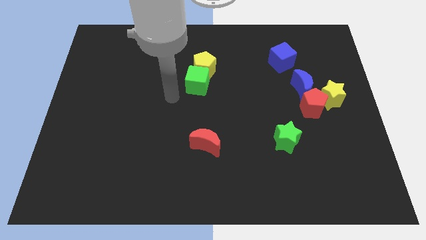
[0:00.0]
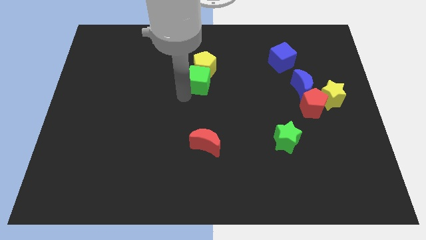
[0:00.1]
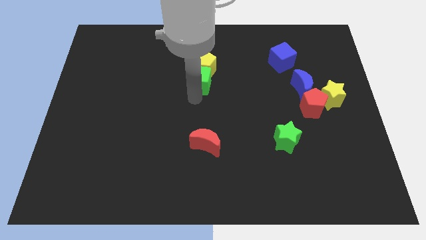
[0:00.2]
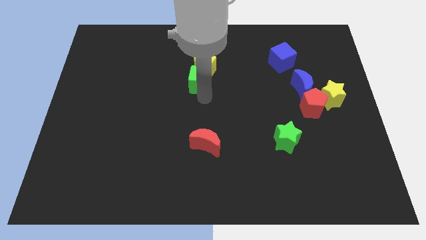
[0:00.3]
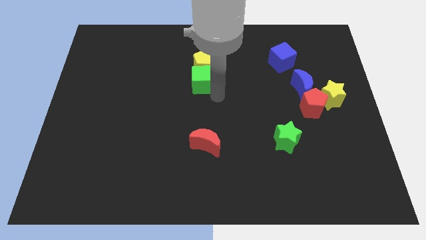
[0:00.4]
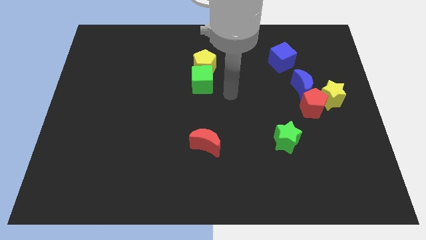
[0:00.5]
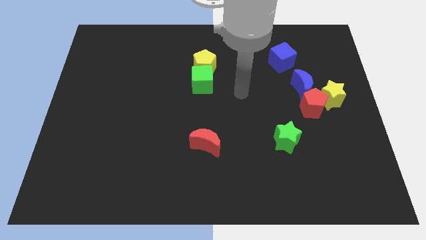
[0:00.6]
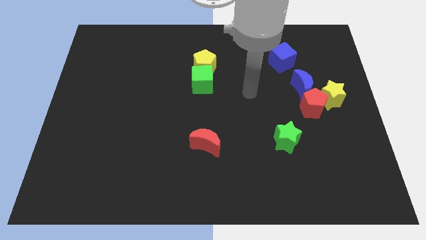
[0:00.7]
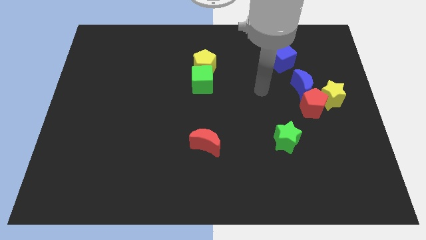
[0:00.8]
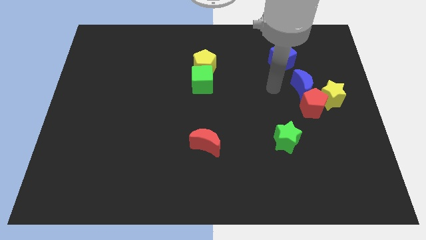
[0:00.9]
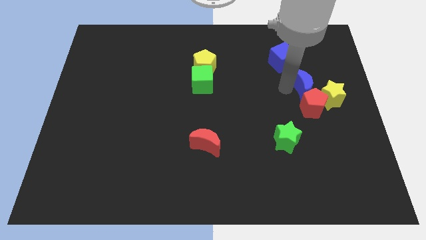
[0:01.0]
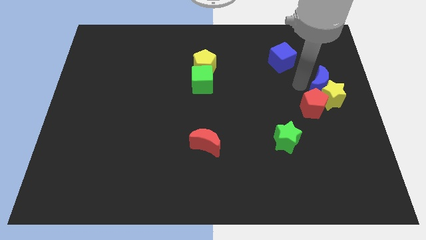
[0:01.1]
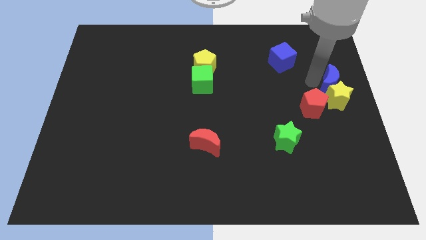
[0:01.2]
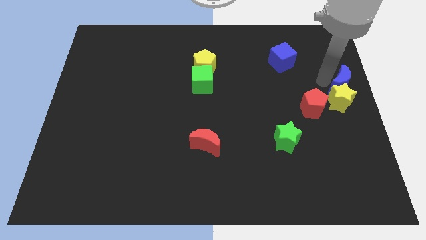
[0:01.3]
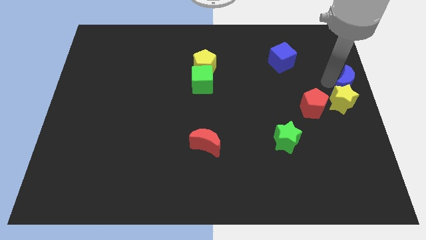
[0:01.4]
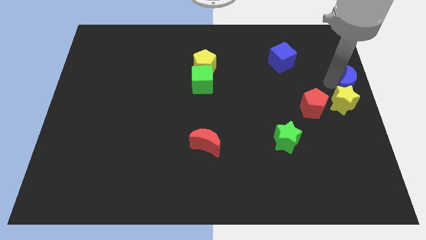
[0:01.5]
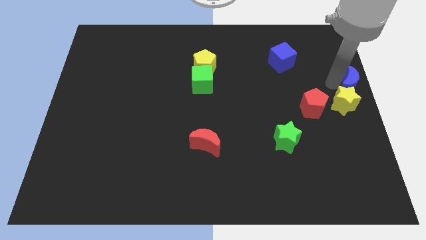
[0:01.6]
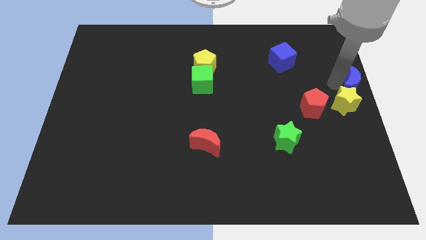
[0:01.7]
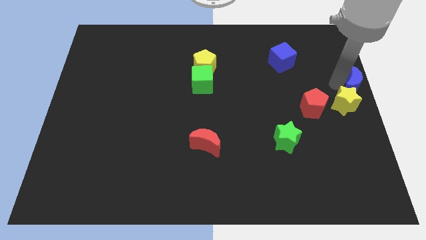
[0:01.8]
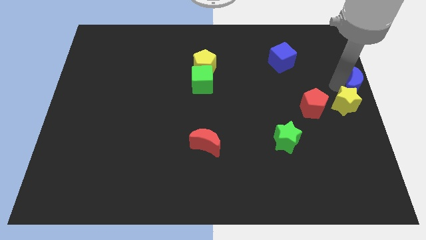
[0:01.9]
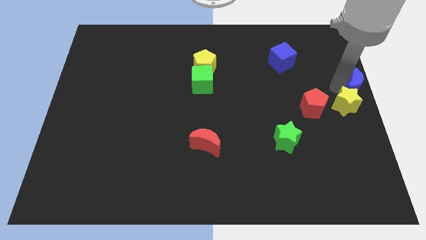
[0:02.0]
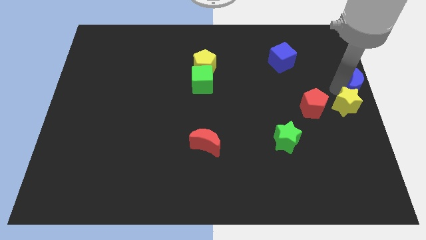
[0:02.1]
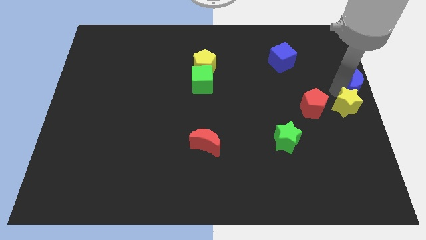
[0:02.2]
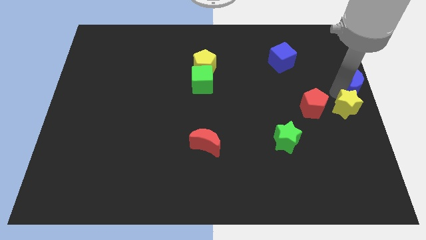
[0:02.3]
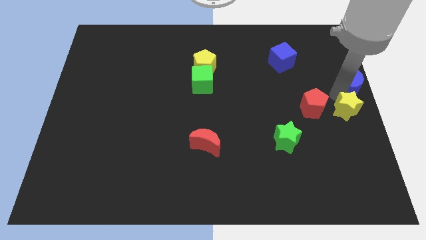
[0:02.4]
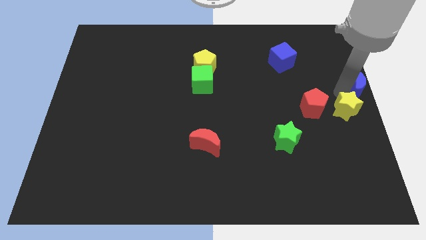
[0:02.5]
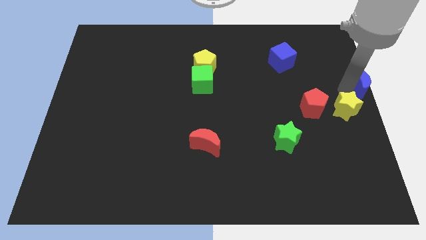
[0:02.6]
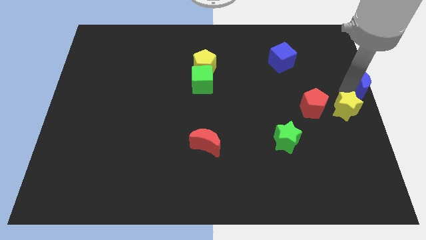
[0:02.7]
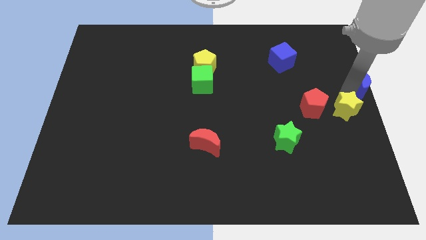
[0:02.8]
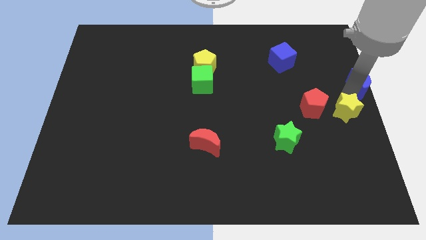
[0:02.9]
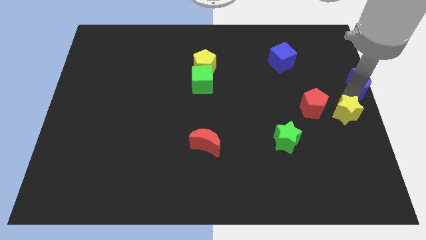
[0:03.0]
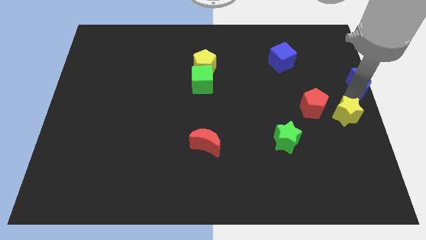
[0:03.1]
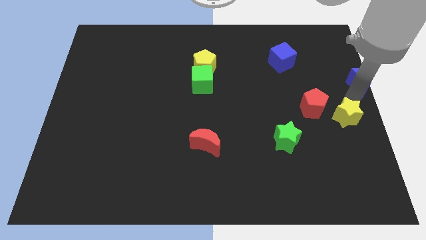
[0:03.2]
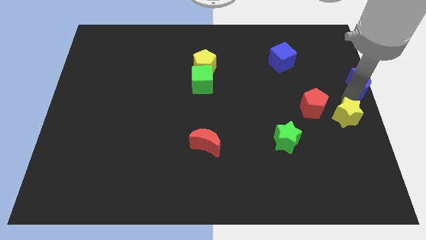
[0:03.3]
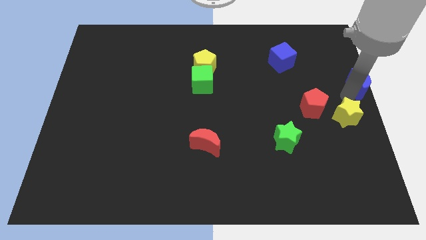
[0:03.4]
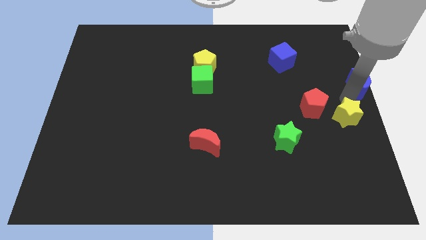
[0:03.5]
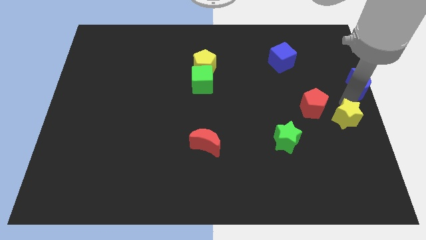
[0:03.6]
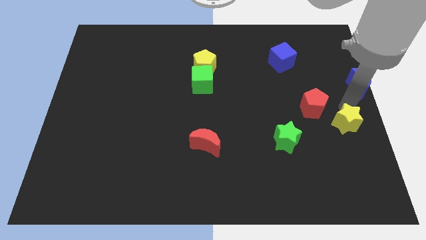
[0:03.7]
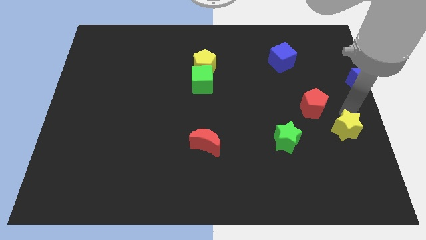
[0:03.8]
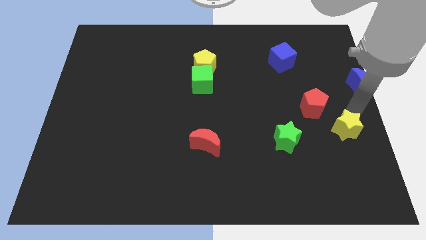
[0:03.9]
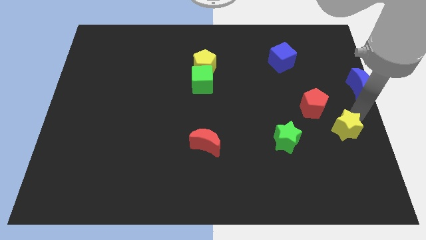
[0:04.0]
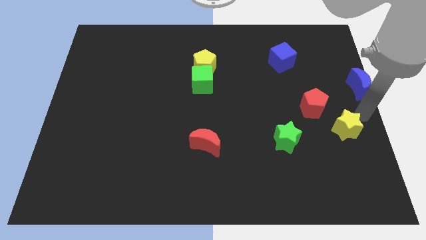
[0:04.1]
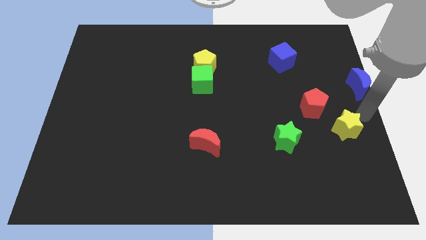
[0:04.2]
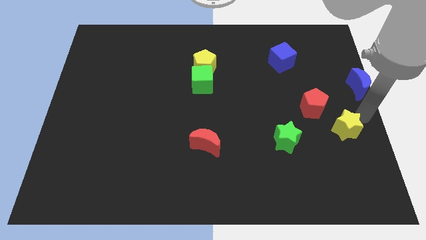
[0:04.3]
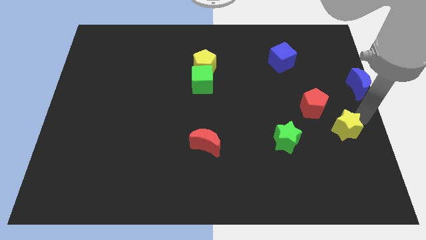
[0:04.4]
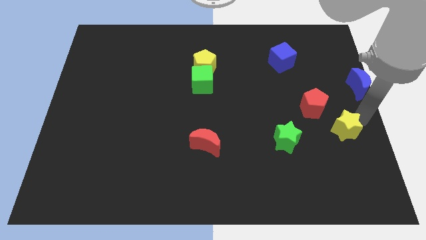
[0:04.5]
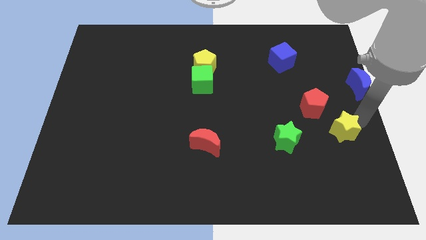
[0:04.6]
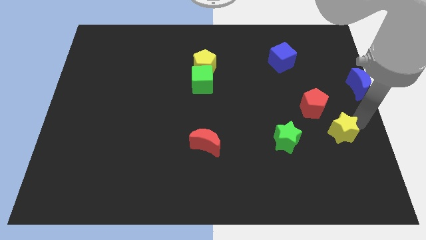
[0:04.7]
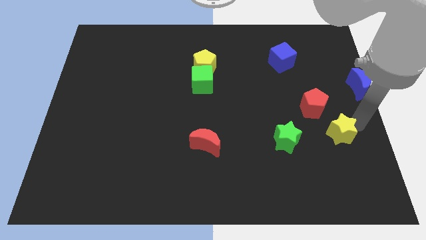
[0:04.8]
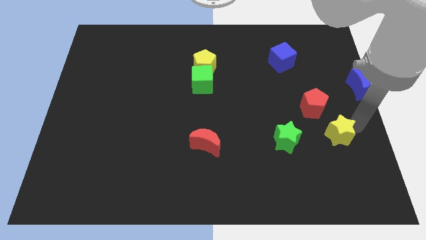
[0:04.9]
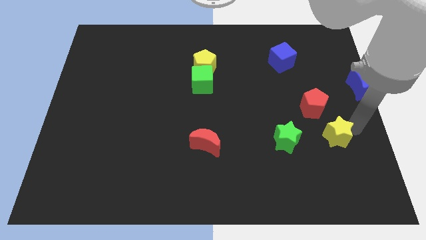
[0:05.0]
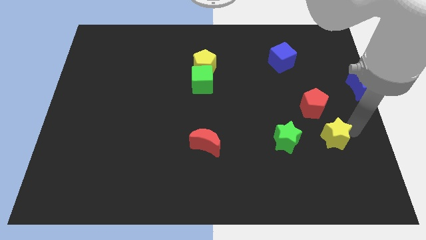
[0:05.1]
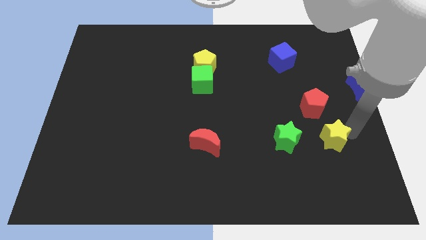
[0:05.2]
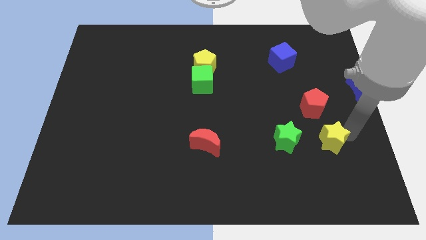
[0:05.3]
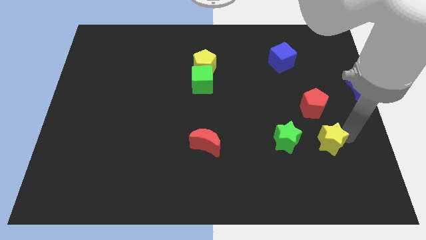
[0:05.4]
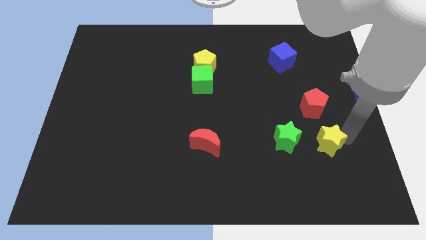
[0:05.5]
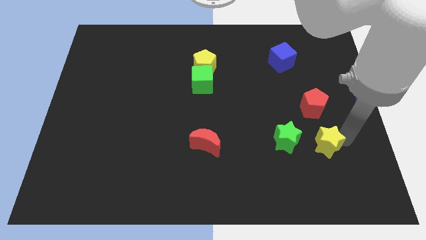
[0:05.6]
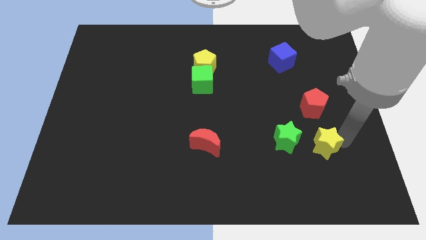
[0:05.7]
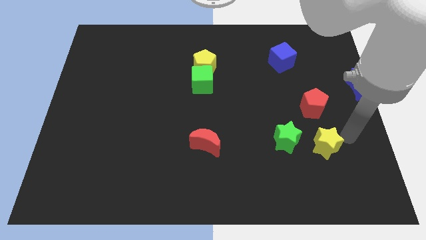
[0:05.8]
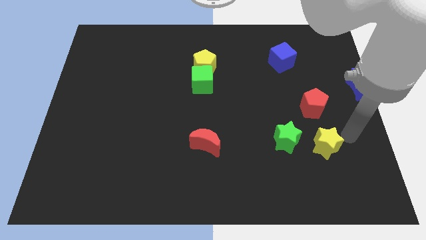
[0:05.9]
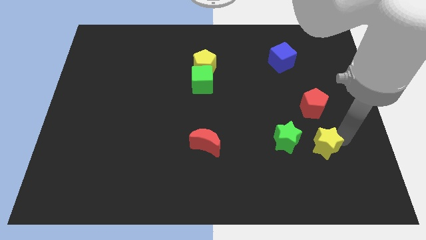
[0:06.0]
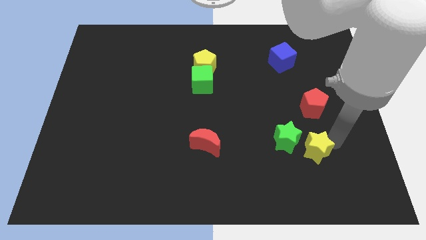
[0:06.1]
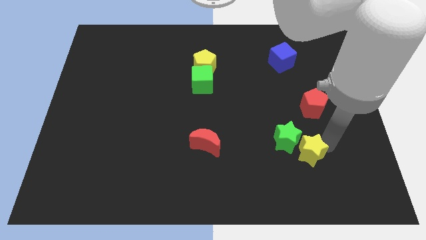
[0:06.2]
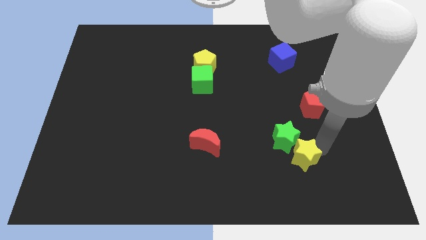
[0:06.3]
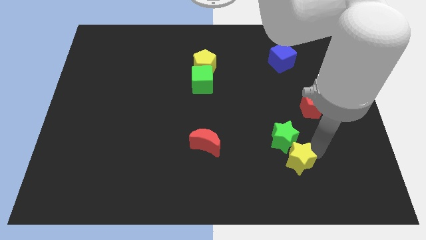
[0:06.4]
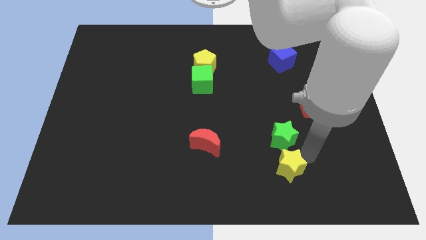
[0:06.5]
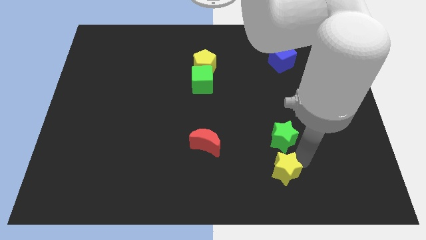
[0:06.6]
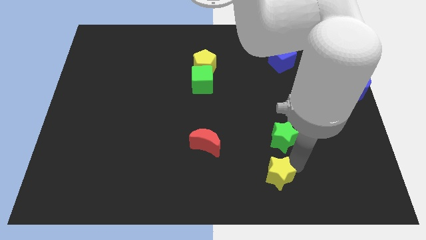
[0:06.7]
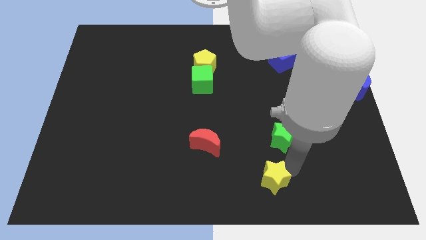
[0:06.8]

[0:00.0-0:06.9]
move the yellow star to the bottom
